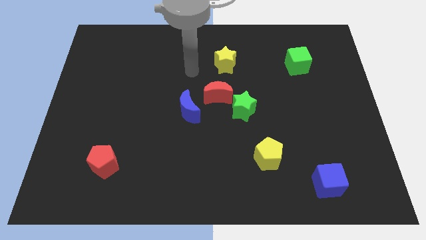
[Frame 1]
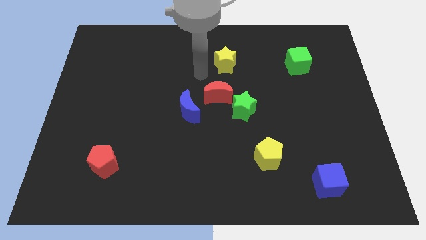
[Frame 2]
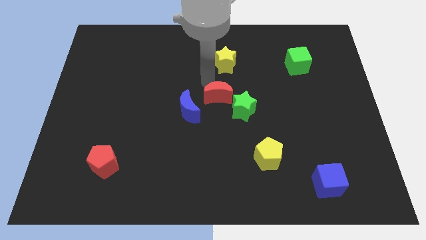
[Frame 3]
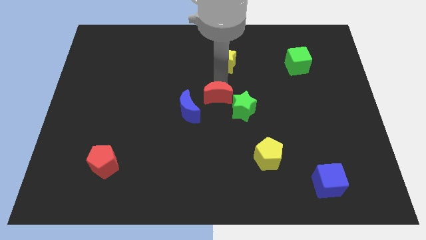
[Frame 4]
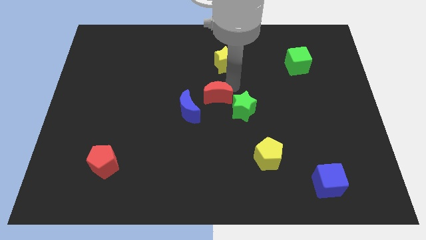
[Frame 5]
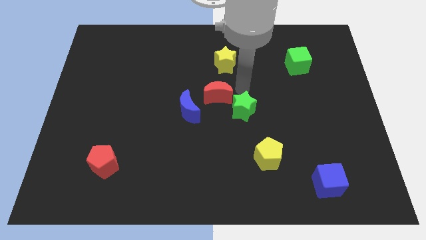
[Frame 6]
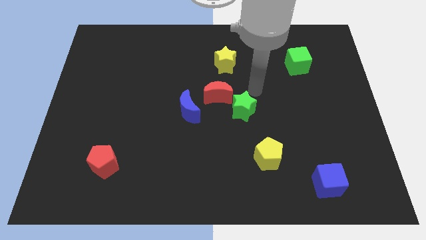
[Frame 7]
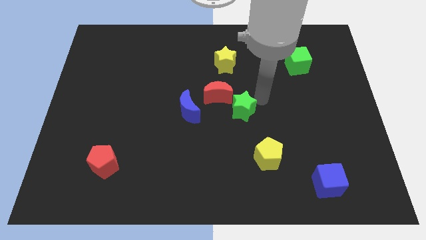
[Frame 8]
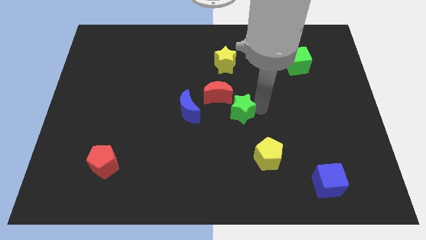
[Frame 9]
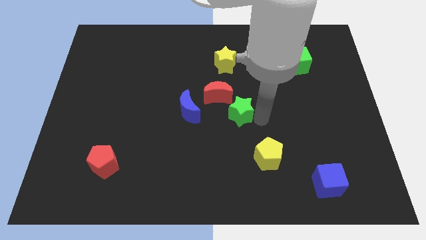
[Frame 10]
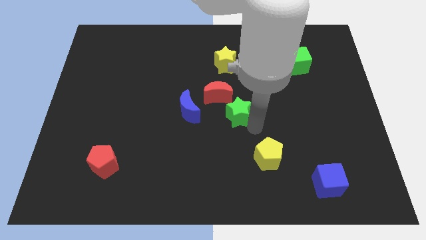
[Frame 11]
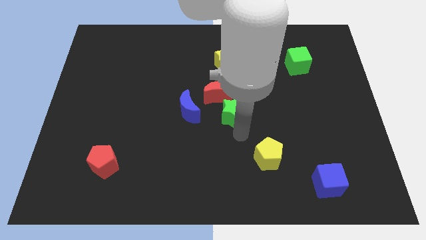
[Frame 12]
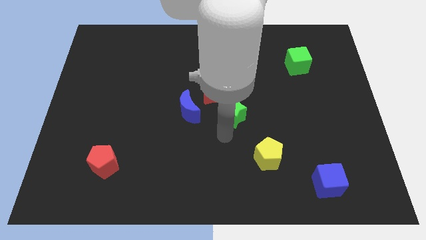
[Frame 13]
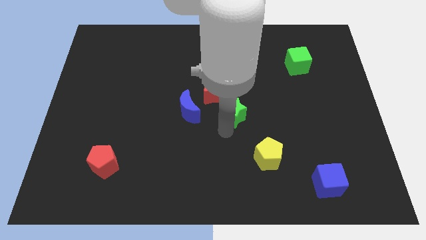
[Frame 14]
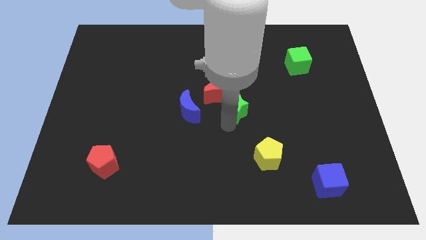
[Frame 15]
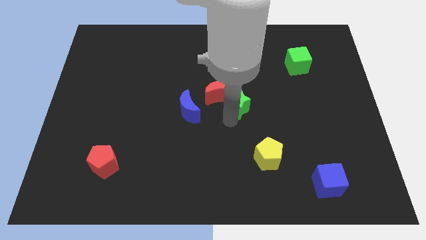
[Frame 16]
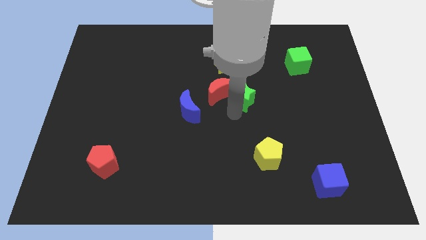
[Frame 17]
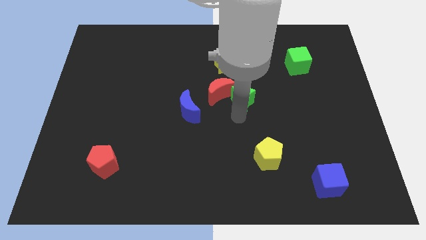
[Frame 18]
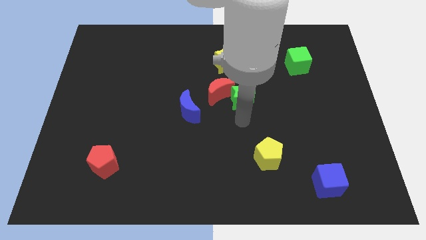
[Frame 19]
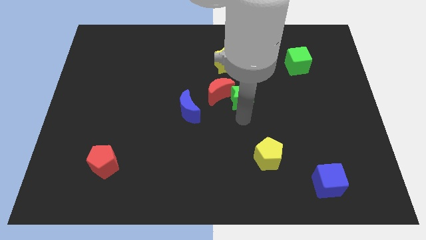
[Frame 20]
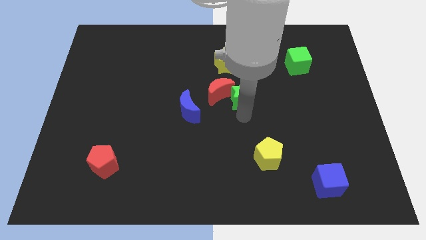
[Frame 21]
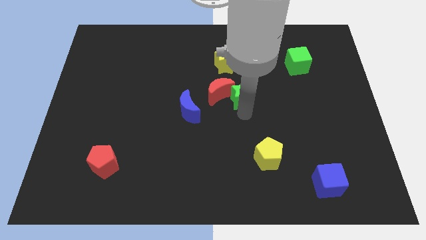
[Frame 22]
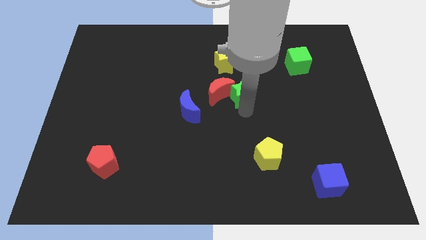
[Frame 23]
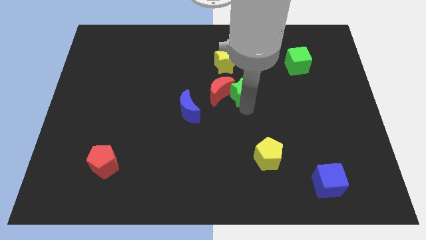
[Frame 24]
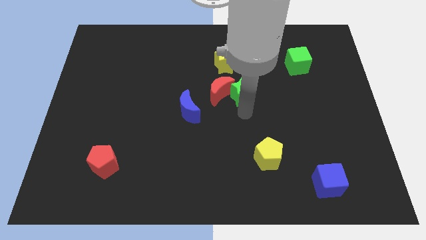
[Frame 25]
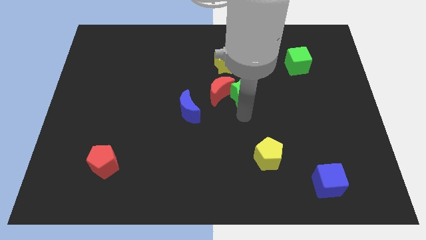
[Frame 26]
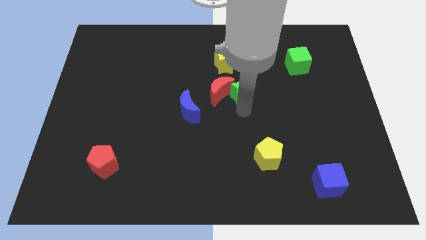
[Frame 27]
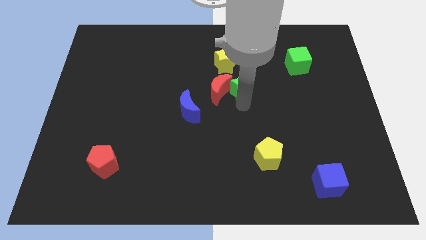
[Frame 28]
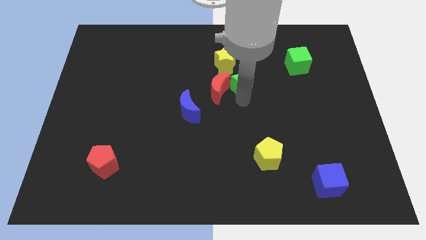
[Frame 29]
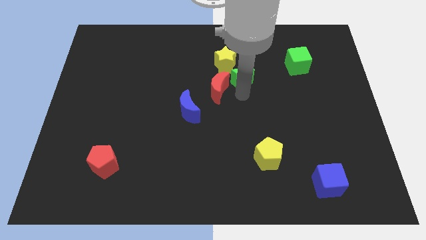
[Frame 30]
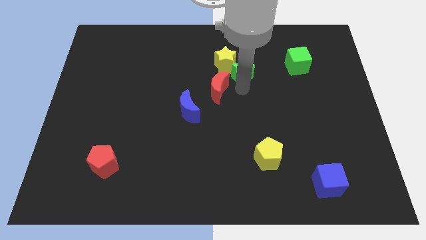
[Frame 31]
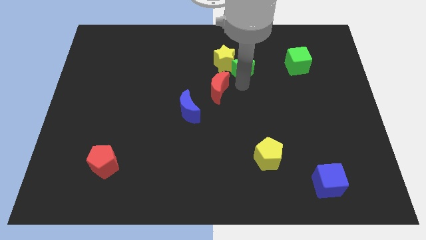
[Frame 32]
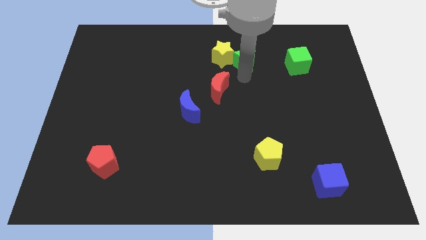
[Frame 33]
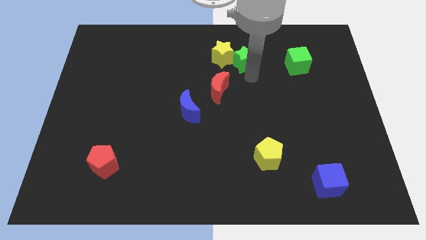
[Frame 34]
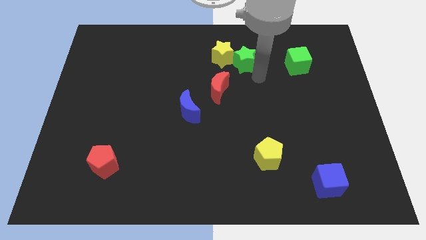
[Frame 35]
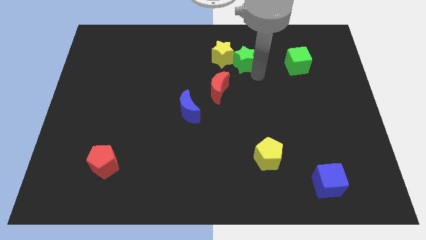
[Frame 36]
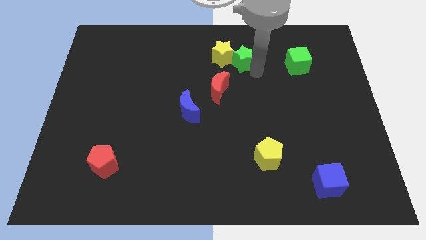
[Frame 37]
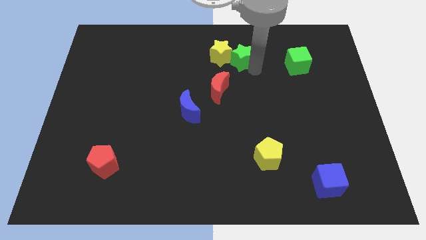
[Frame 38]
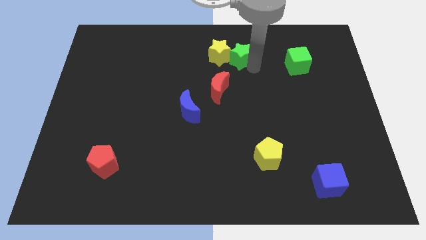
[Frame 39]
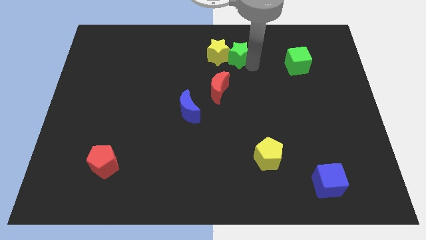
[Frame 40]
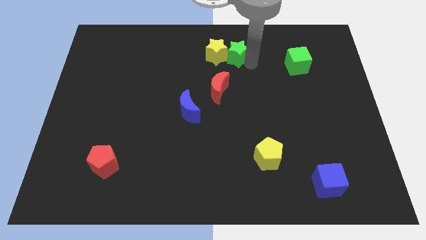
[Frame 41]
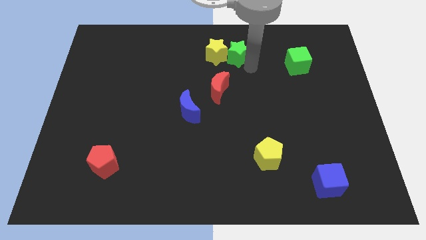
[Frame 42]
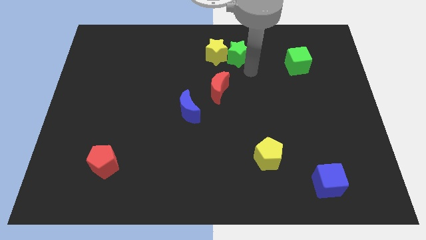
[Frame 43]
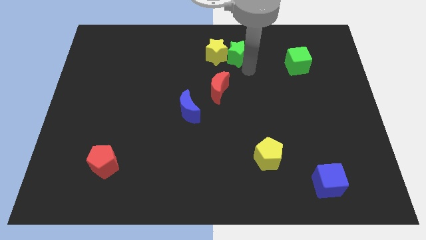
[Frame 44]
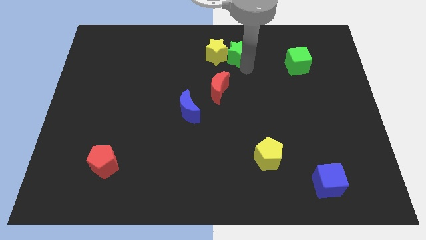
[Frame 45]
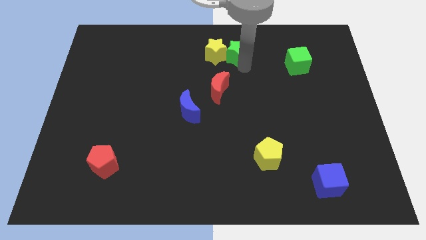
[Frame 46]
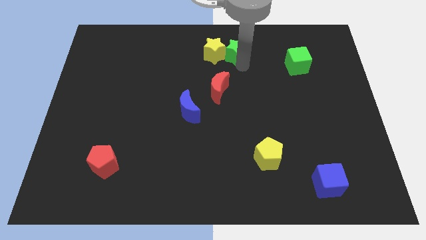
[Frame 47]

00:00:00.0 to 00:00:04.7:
slide the green star to the top

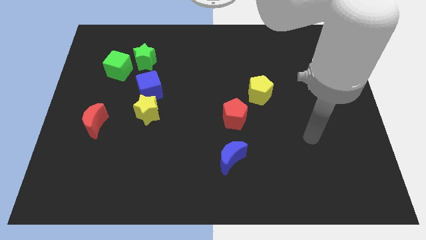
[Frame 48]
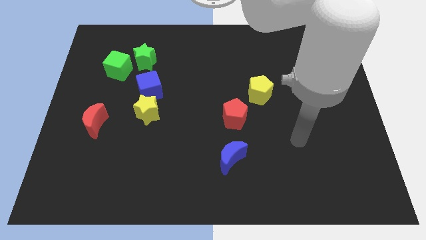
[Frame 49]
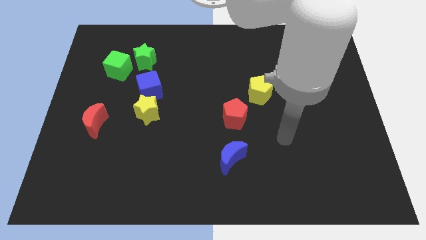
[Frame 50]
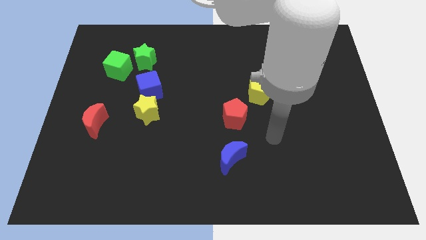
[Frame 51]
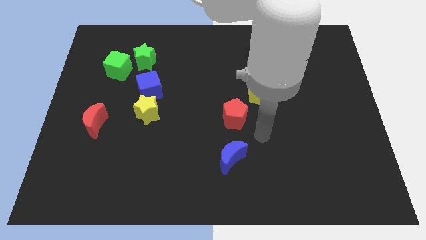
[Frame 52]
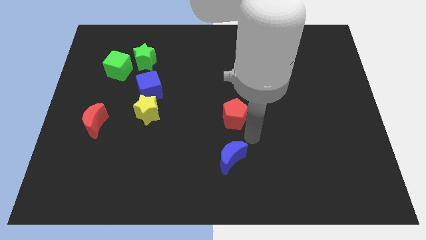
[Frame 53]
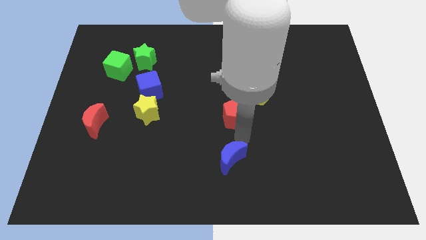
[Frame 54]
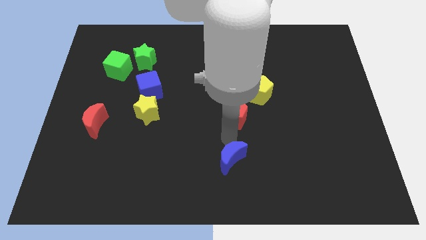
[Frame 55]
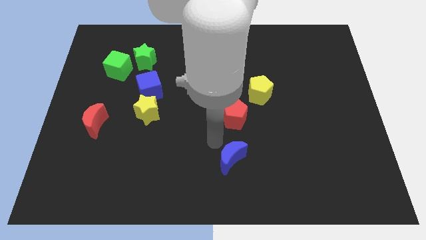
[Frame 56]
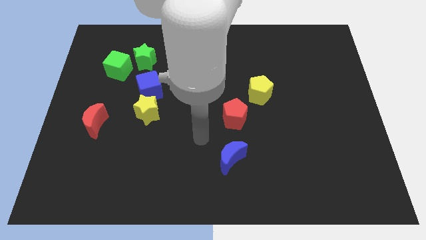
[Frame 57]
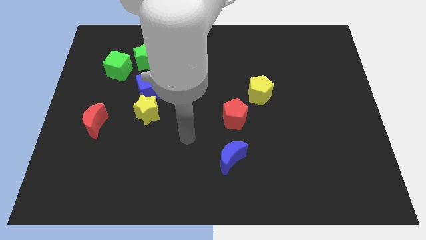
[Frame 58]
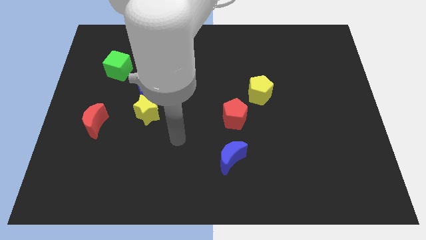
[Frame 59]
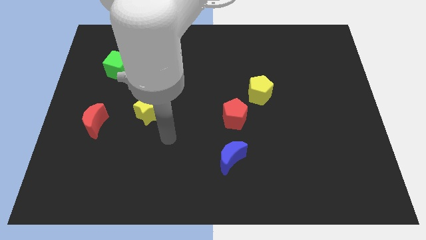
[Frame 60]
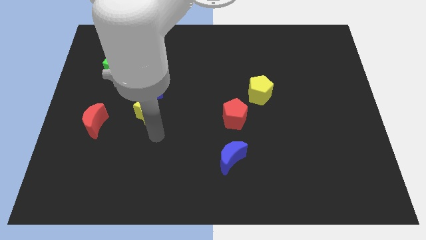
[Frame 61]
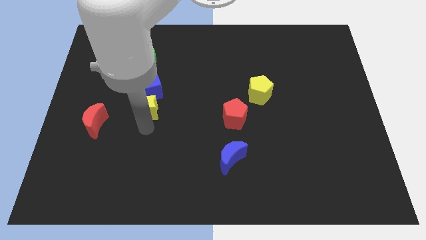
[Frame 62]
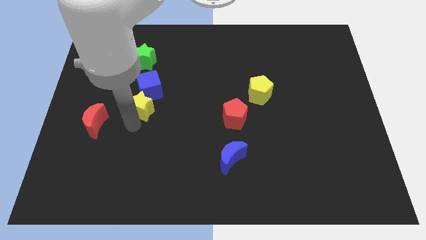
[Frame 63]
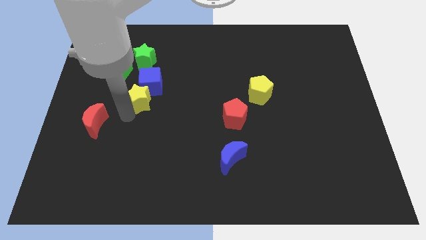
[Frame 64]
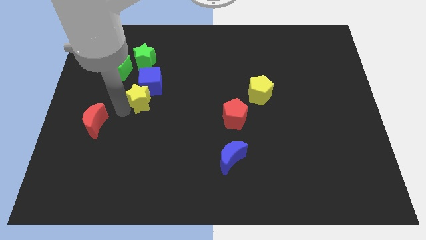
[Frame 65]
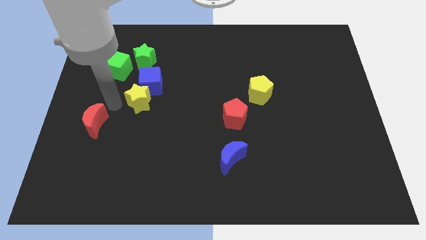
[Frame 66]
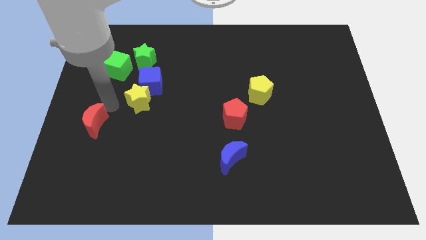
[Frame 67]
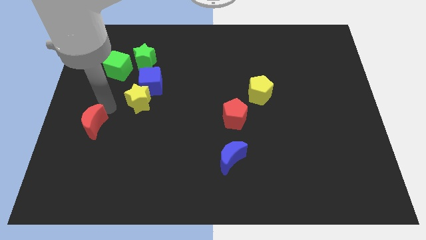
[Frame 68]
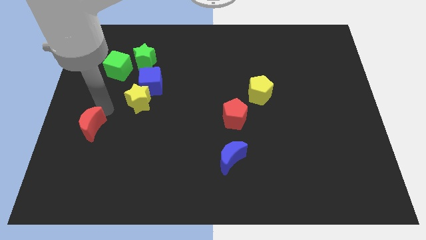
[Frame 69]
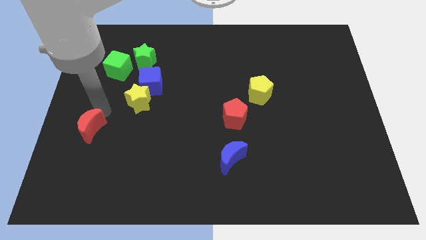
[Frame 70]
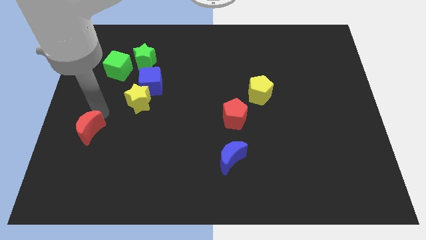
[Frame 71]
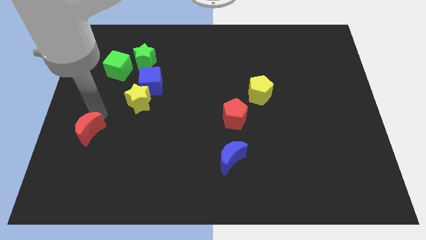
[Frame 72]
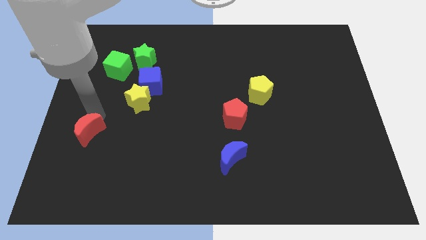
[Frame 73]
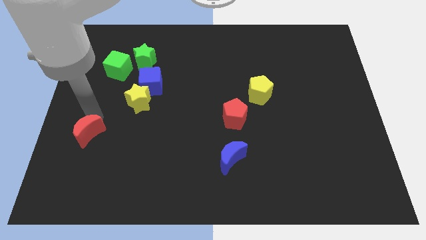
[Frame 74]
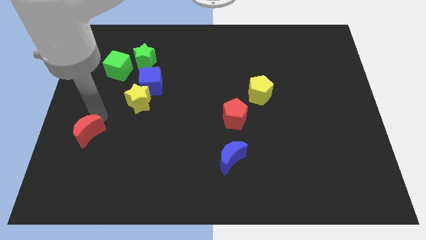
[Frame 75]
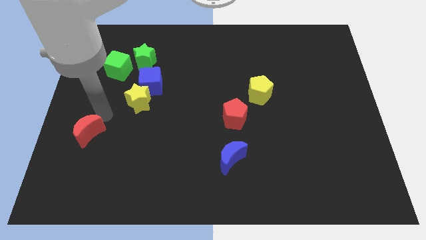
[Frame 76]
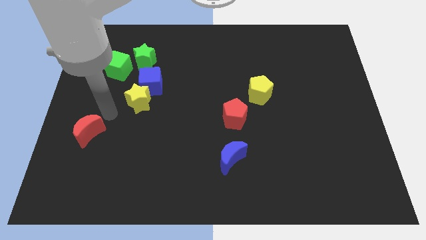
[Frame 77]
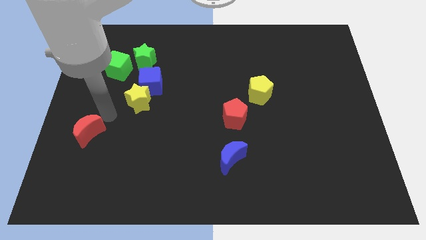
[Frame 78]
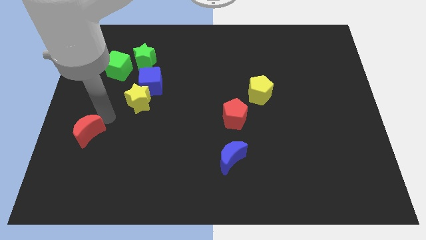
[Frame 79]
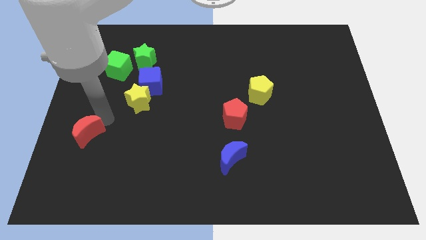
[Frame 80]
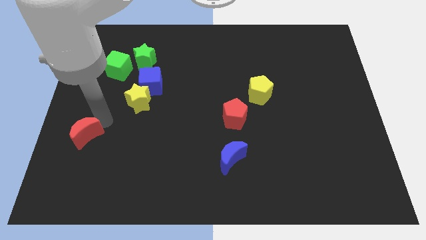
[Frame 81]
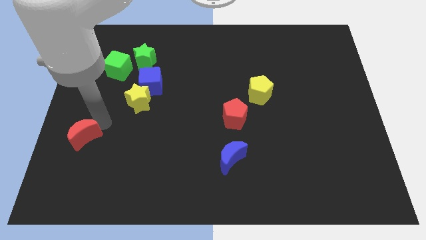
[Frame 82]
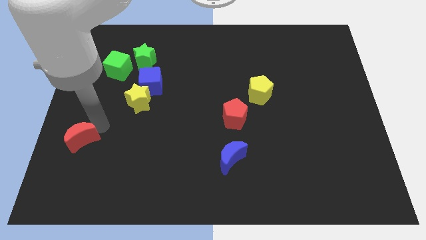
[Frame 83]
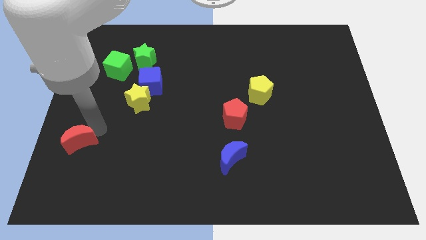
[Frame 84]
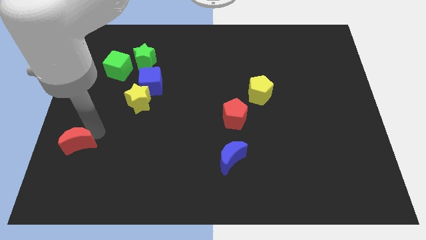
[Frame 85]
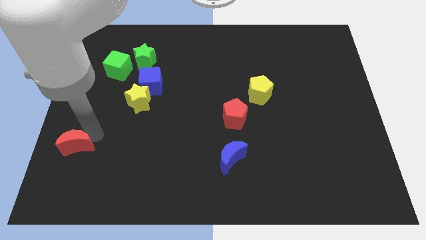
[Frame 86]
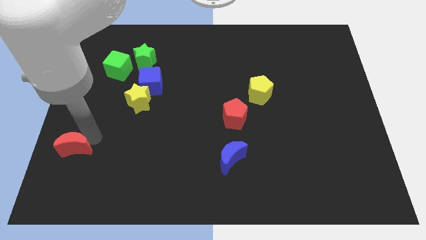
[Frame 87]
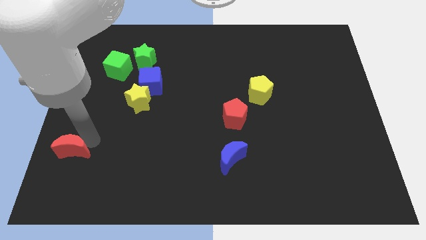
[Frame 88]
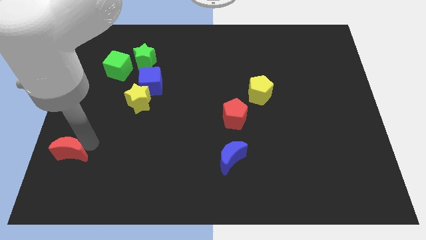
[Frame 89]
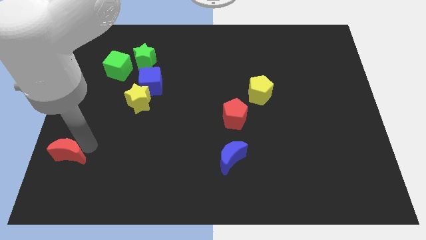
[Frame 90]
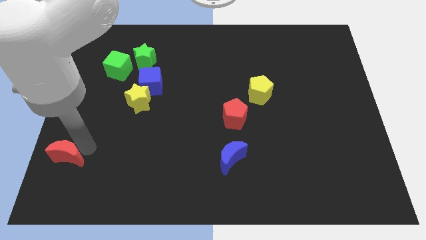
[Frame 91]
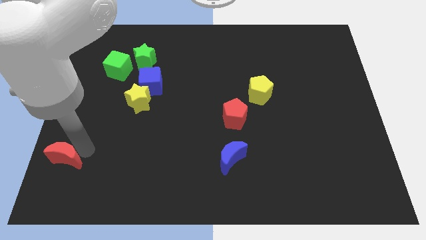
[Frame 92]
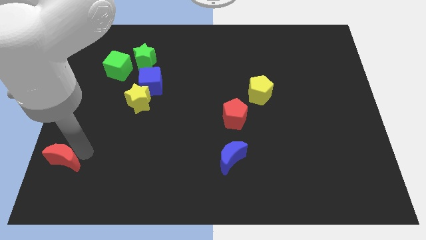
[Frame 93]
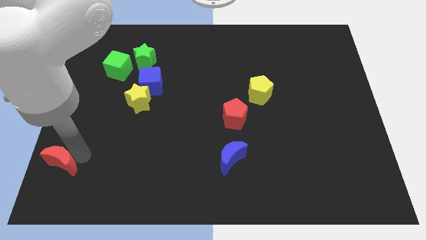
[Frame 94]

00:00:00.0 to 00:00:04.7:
slide the red moon to the bottom left
